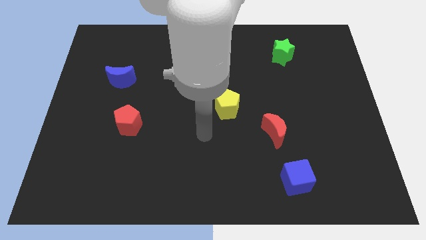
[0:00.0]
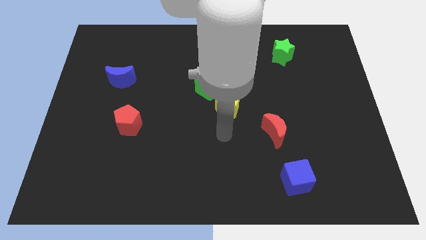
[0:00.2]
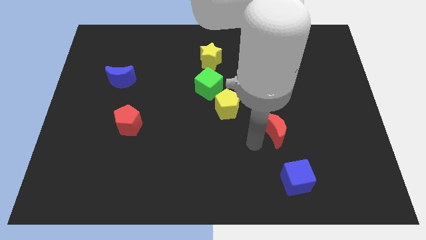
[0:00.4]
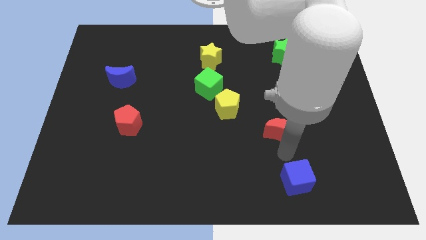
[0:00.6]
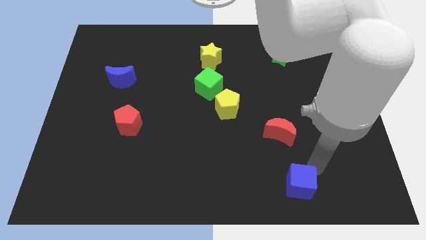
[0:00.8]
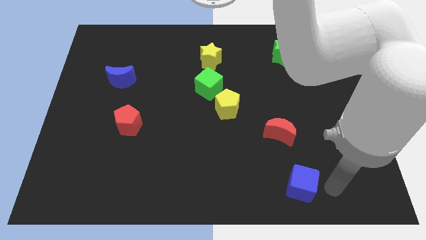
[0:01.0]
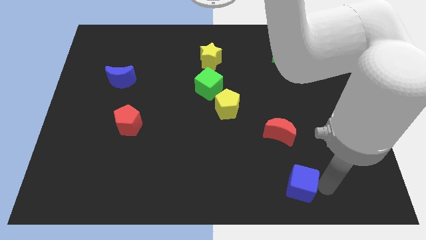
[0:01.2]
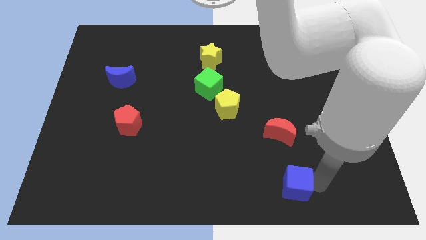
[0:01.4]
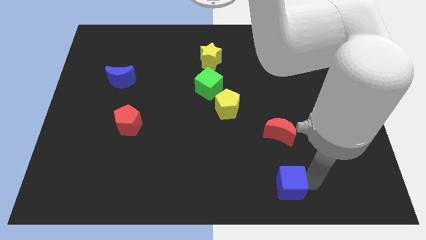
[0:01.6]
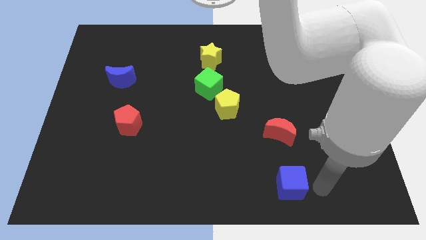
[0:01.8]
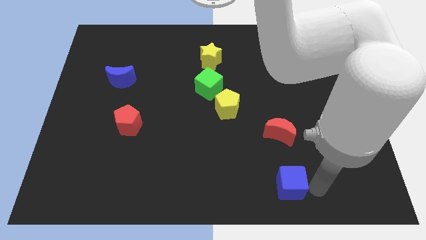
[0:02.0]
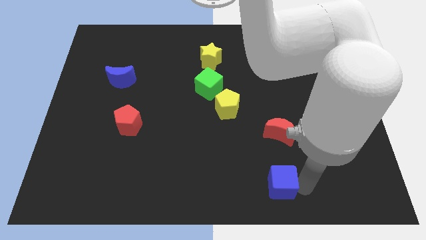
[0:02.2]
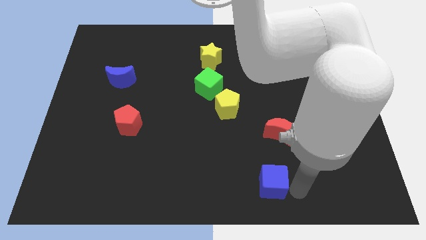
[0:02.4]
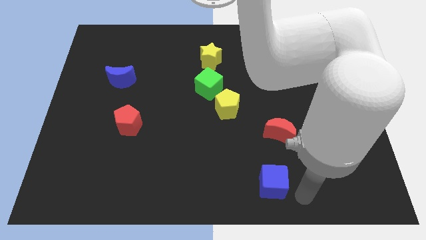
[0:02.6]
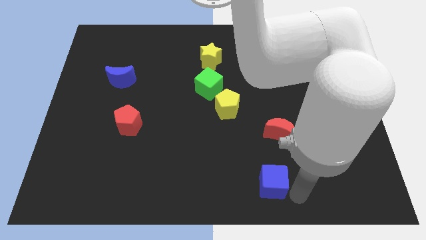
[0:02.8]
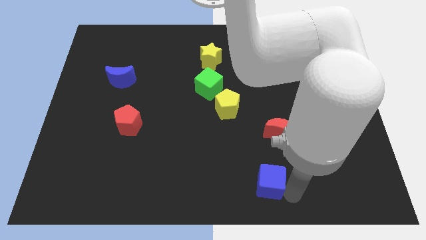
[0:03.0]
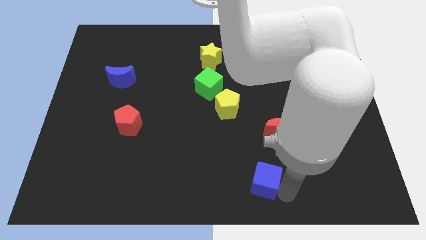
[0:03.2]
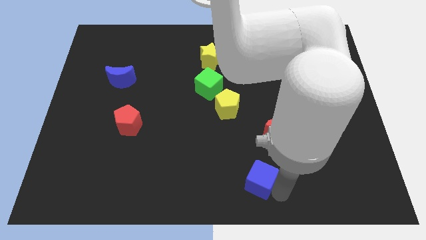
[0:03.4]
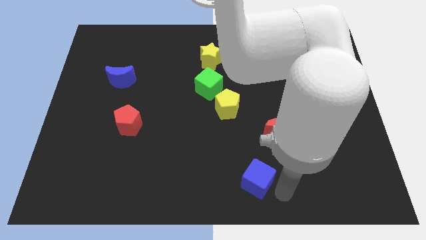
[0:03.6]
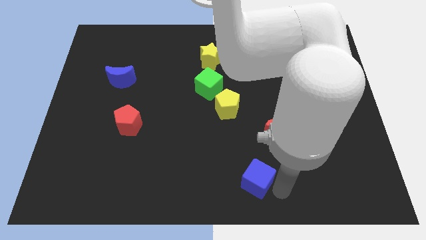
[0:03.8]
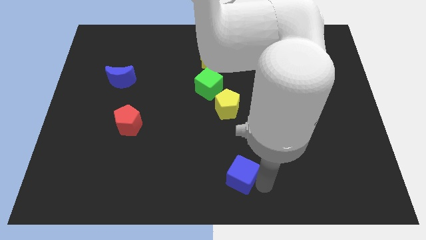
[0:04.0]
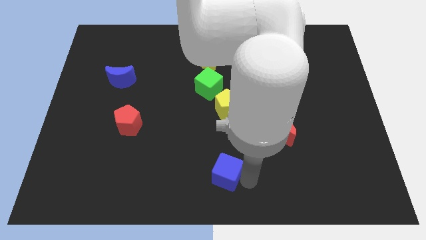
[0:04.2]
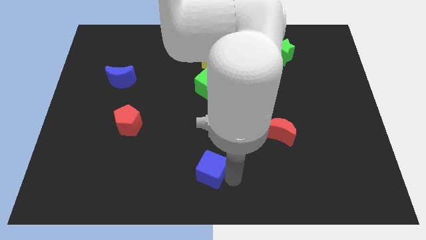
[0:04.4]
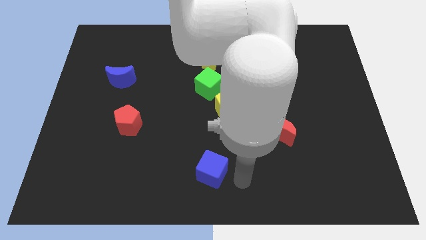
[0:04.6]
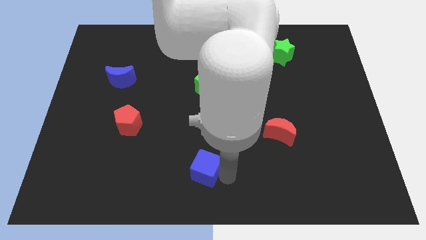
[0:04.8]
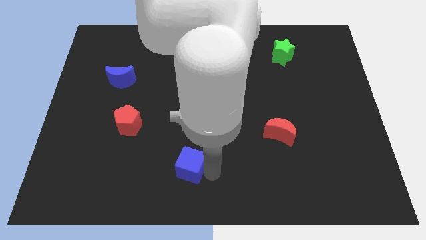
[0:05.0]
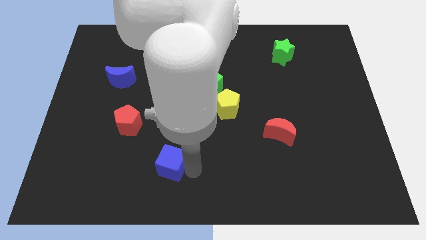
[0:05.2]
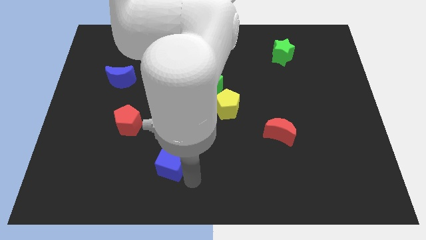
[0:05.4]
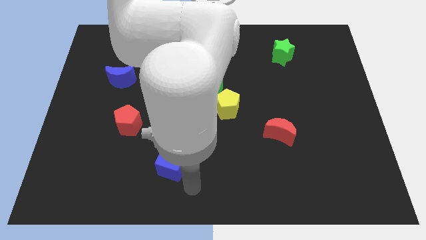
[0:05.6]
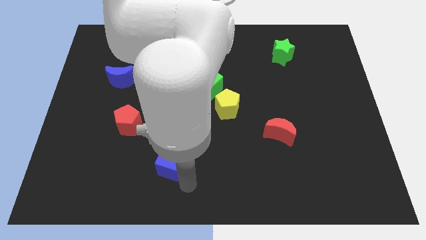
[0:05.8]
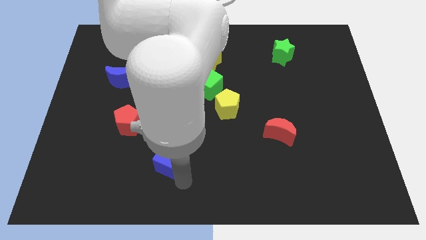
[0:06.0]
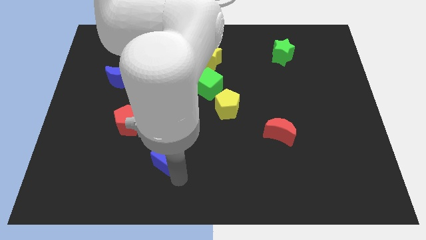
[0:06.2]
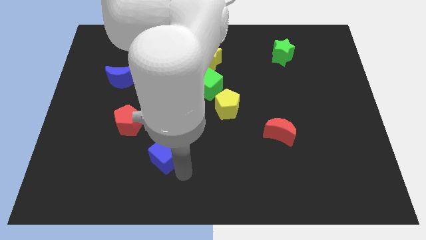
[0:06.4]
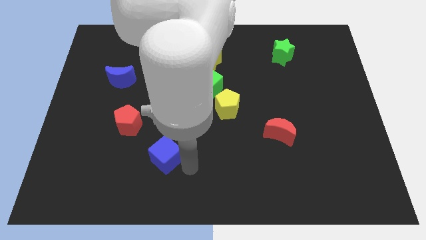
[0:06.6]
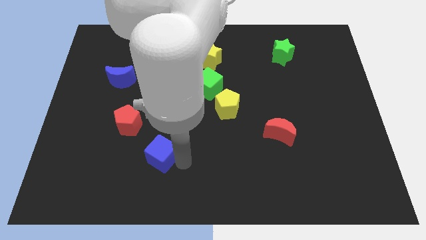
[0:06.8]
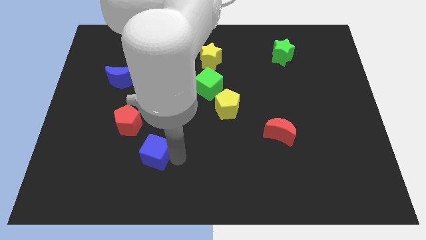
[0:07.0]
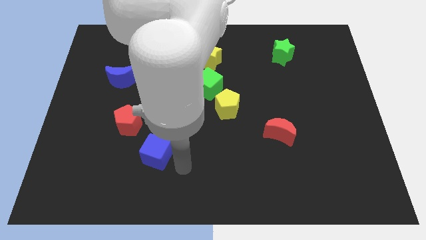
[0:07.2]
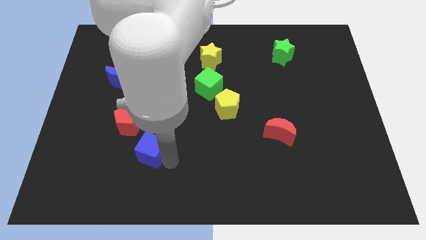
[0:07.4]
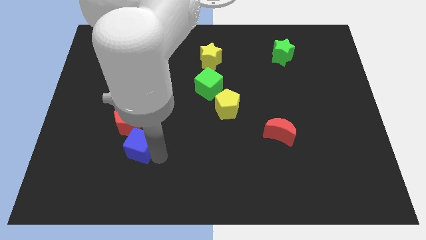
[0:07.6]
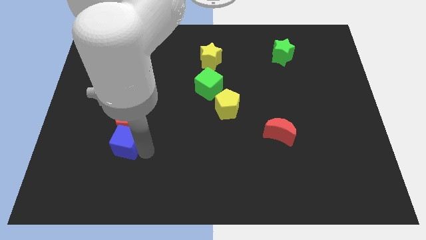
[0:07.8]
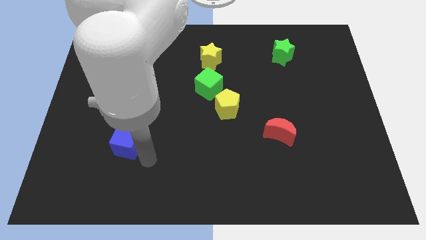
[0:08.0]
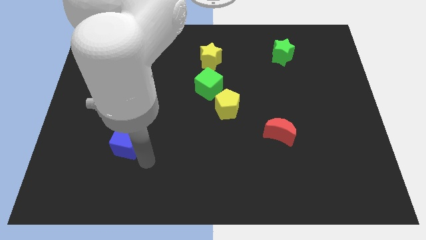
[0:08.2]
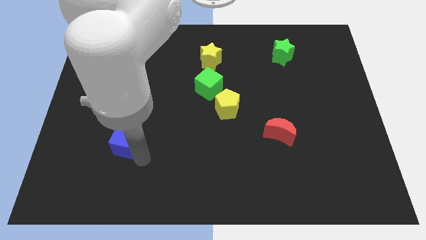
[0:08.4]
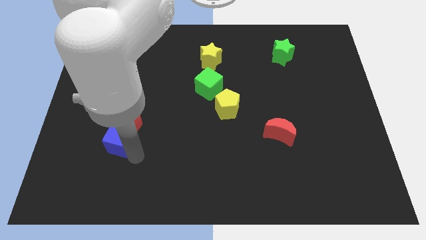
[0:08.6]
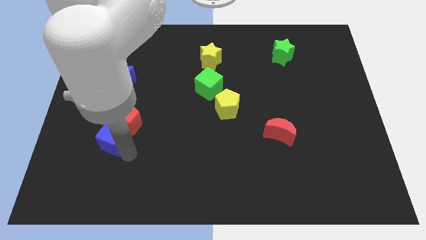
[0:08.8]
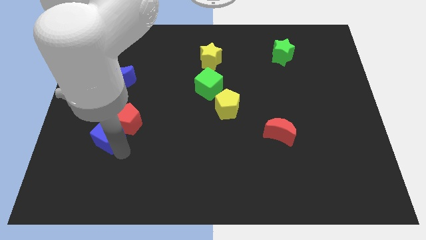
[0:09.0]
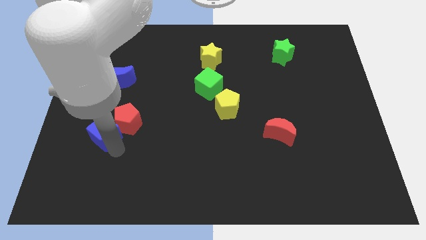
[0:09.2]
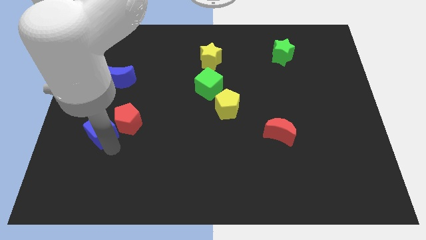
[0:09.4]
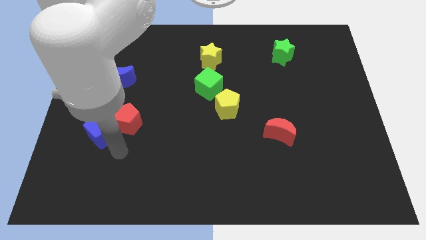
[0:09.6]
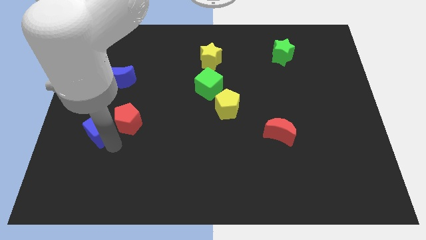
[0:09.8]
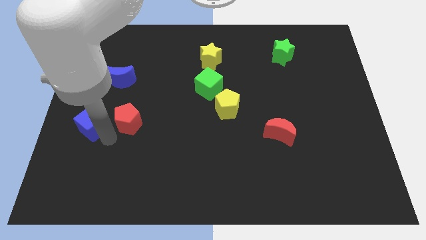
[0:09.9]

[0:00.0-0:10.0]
push the blue cube to the left side of the board

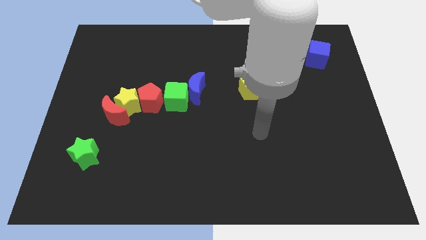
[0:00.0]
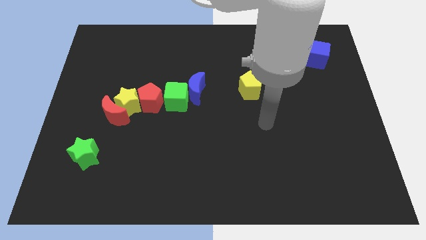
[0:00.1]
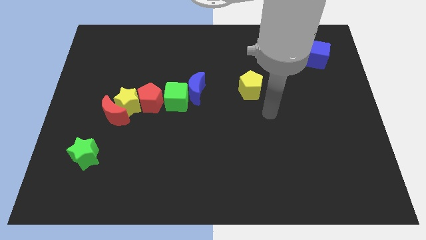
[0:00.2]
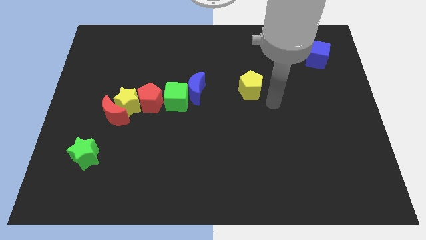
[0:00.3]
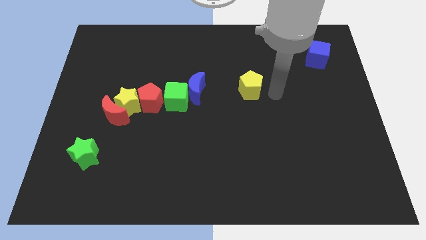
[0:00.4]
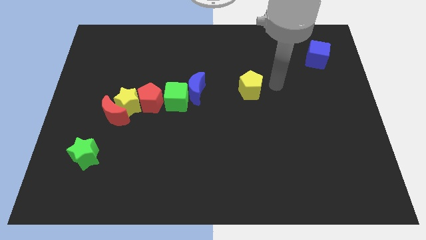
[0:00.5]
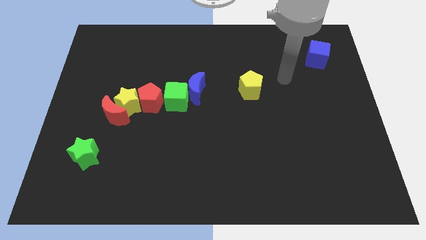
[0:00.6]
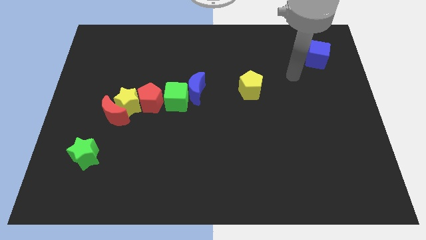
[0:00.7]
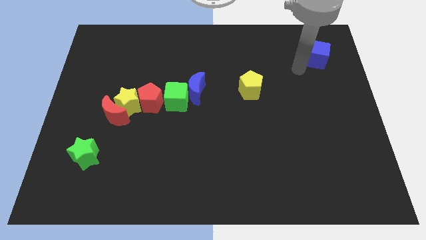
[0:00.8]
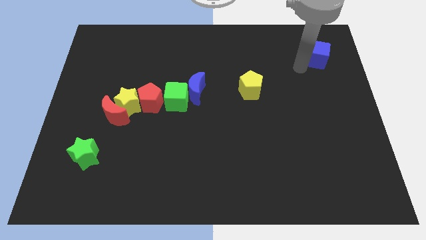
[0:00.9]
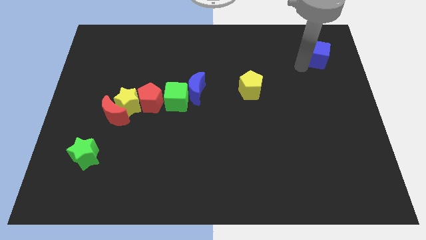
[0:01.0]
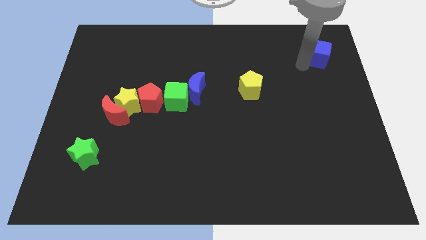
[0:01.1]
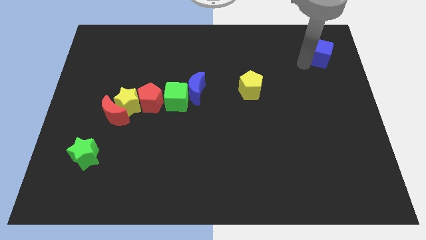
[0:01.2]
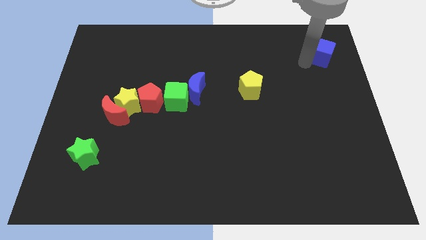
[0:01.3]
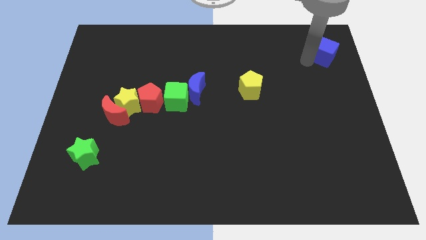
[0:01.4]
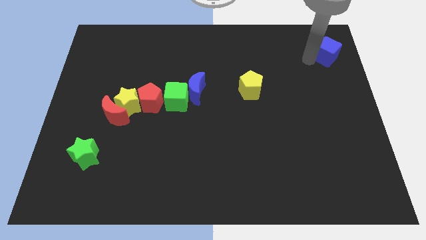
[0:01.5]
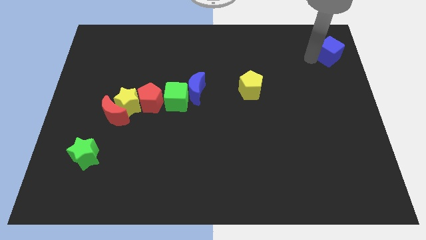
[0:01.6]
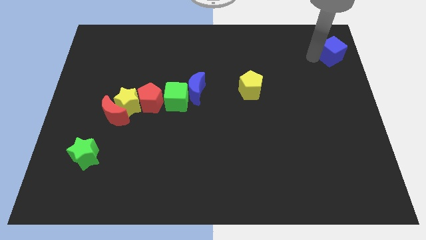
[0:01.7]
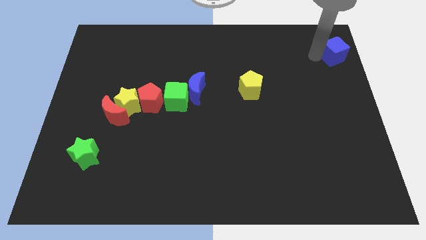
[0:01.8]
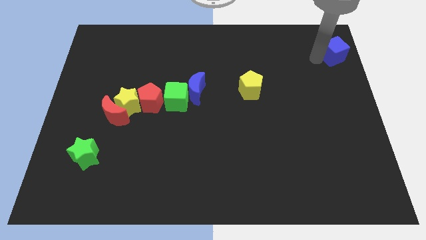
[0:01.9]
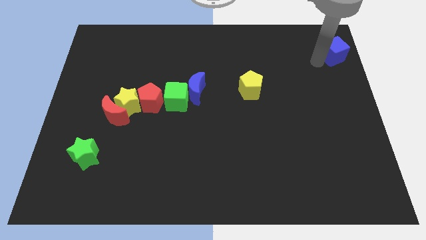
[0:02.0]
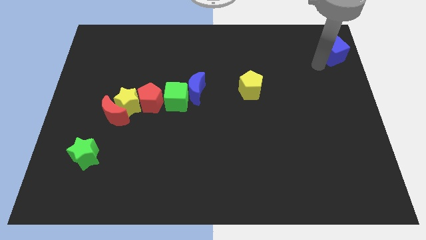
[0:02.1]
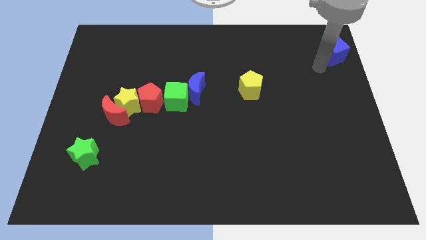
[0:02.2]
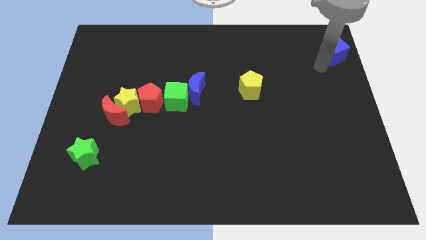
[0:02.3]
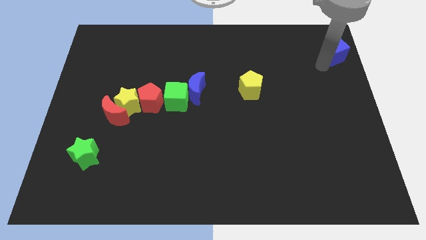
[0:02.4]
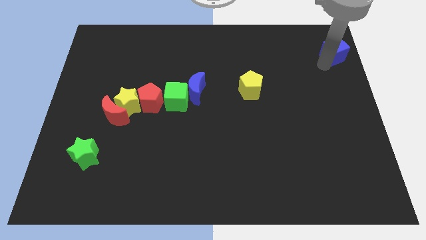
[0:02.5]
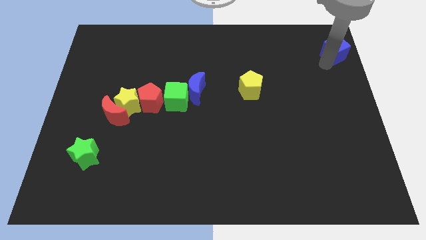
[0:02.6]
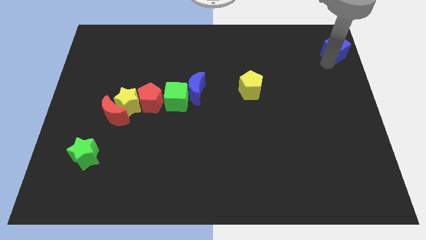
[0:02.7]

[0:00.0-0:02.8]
put the blue cube to the top right
